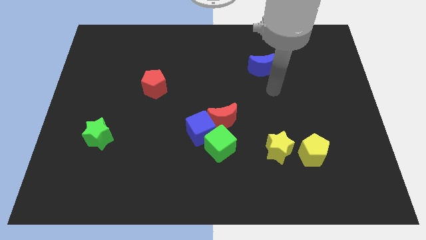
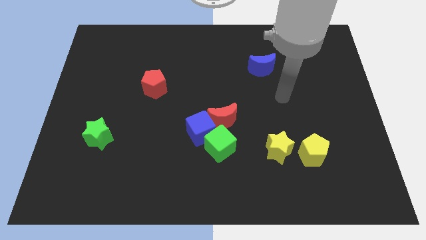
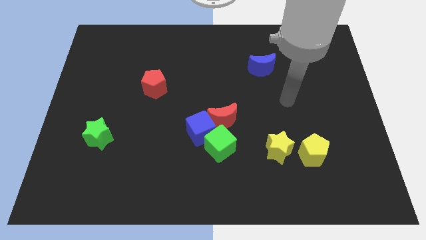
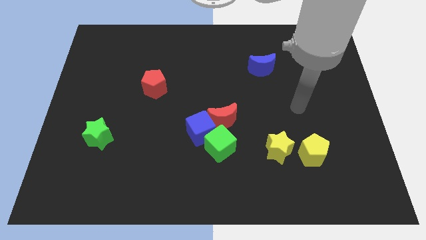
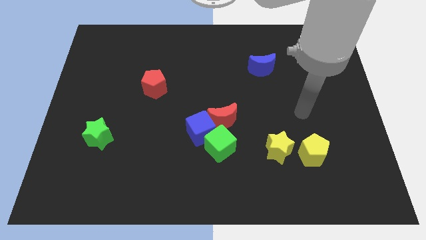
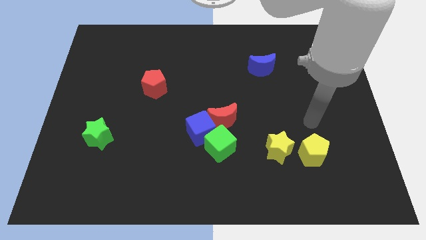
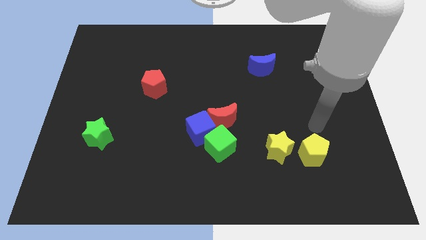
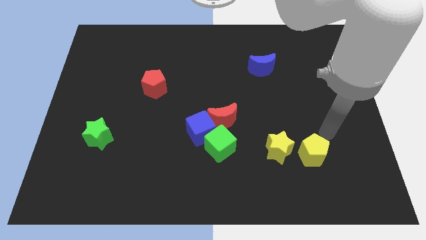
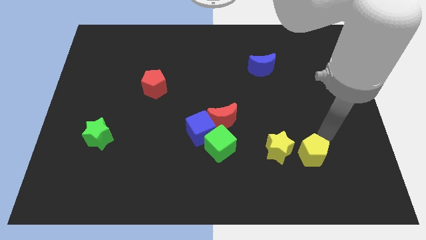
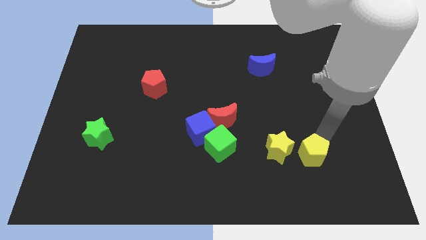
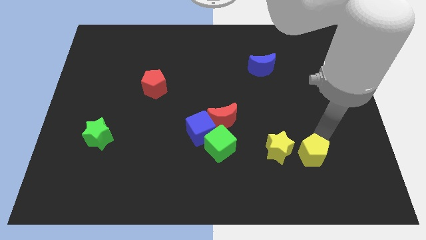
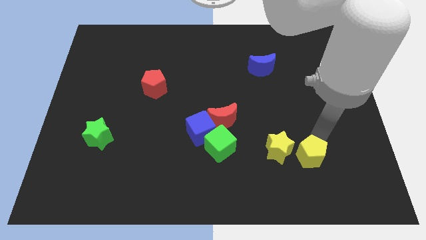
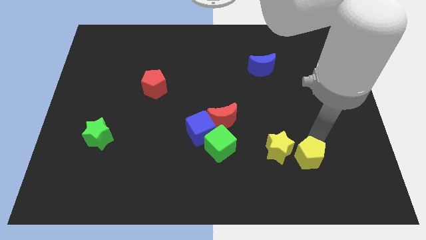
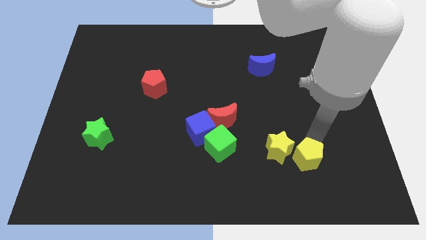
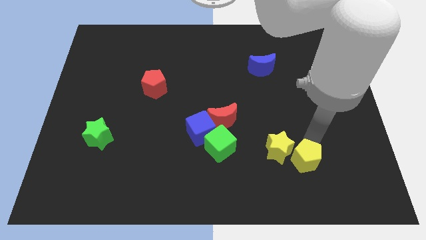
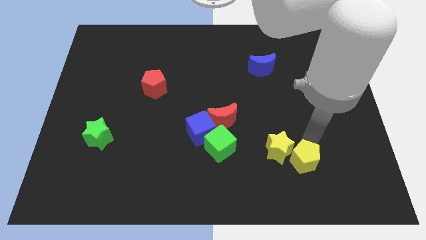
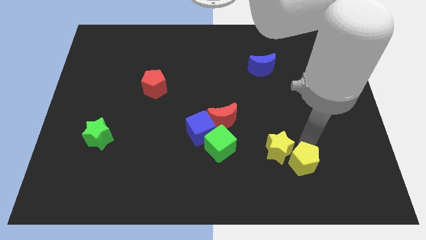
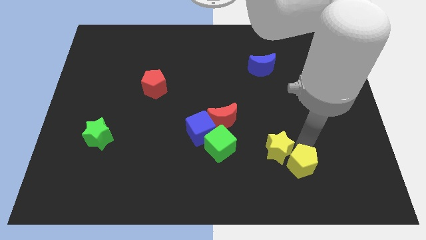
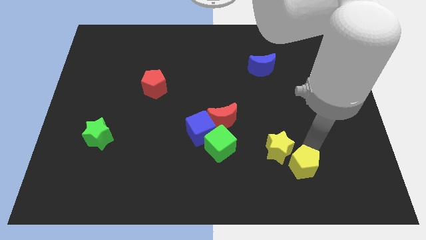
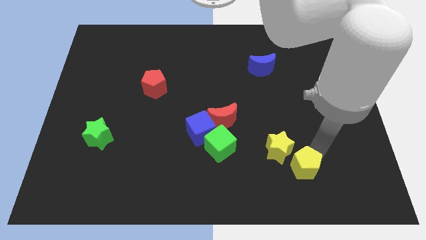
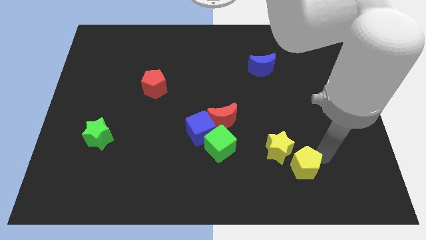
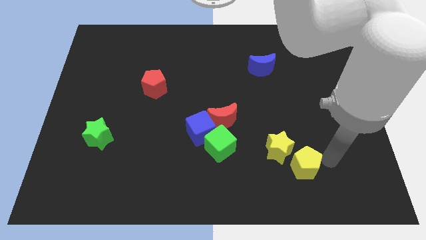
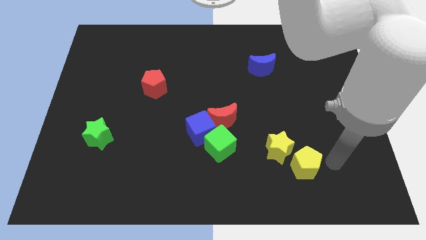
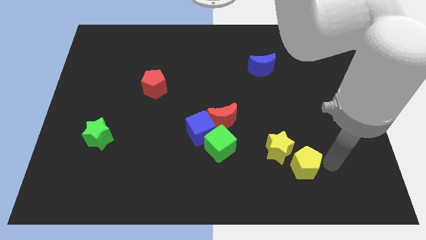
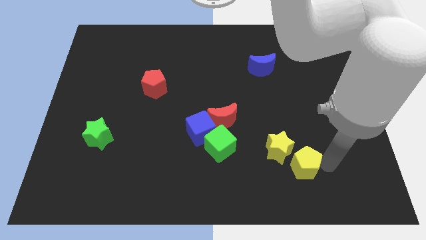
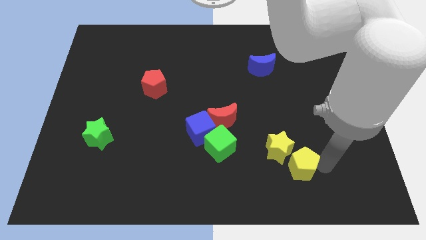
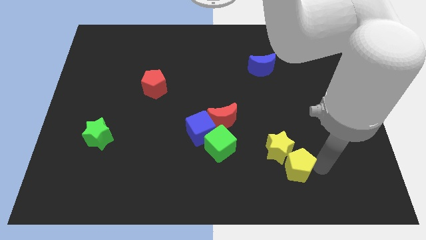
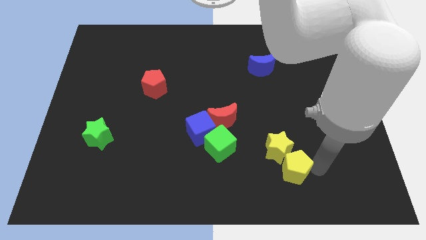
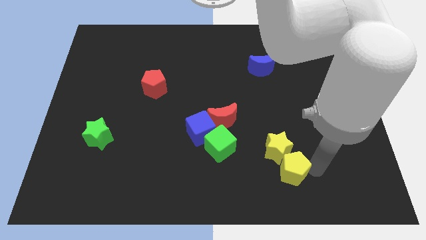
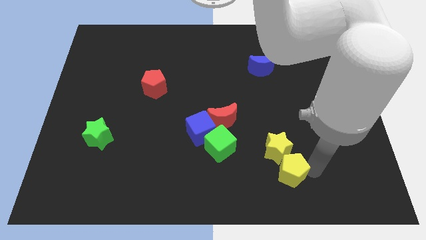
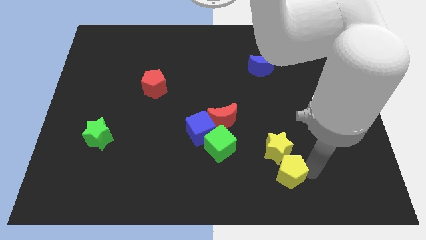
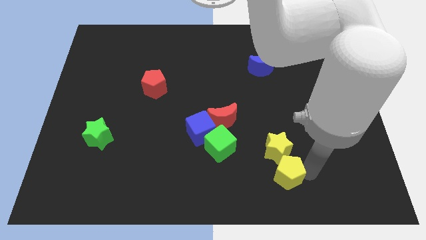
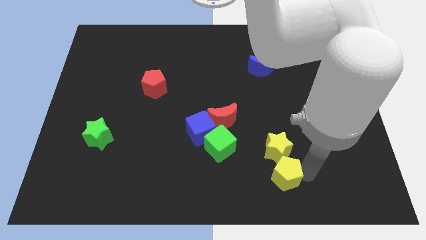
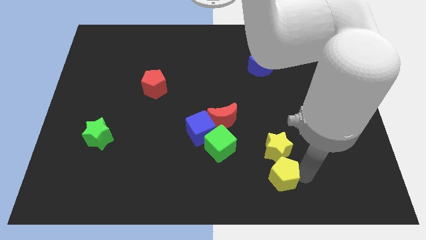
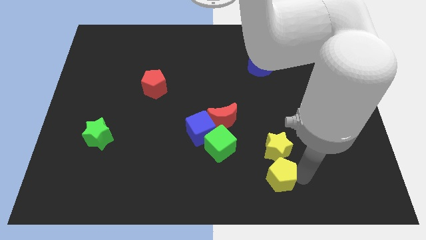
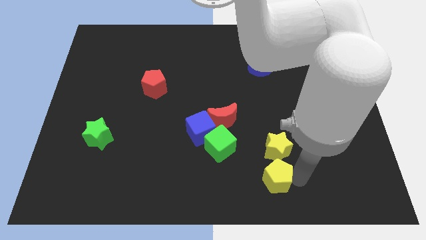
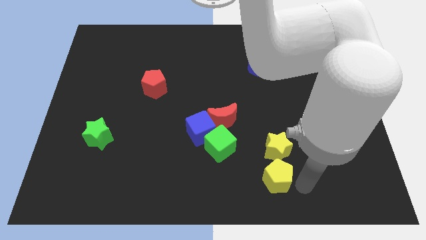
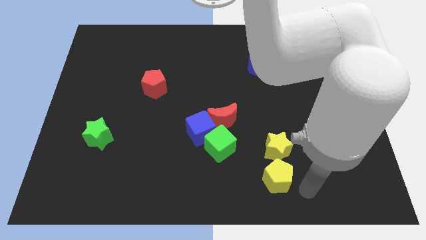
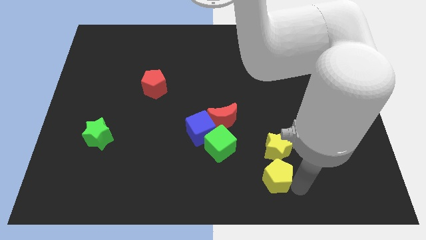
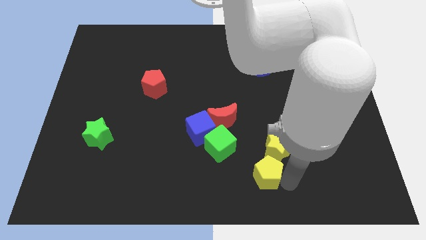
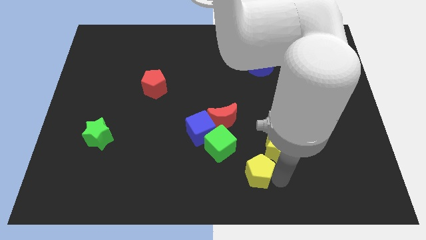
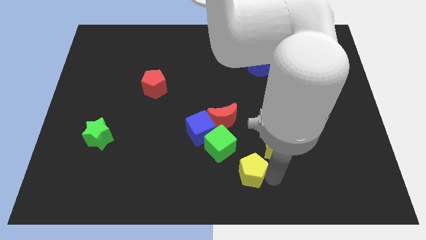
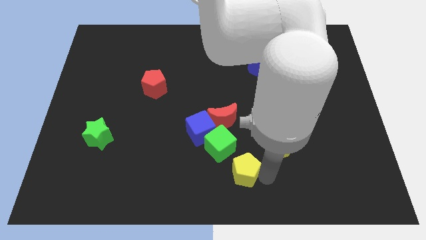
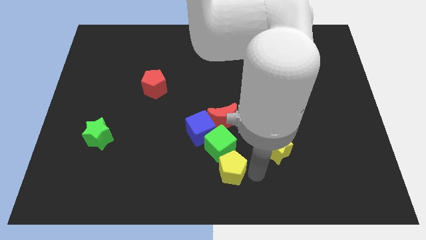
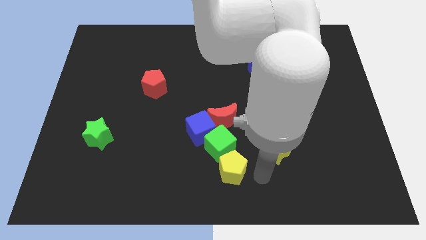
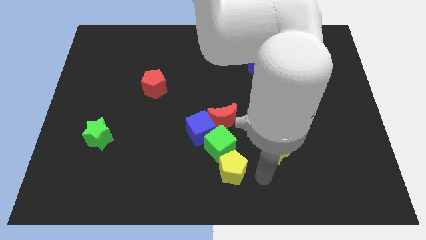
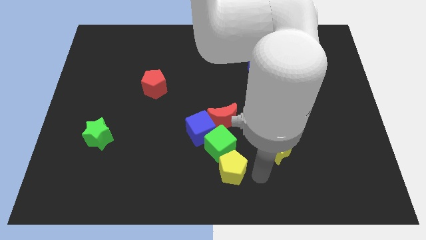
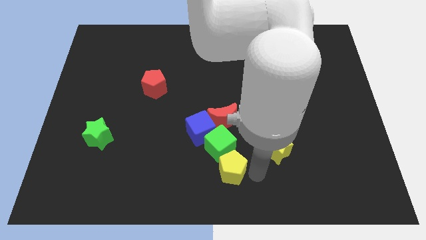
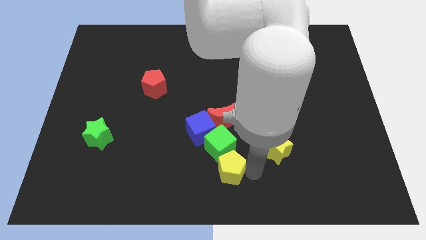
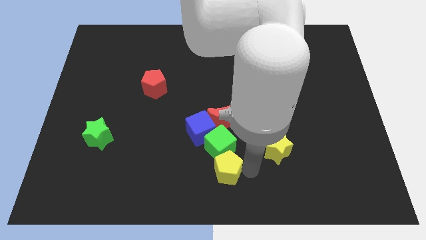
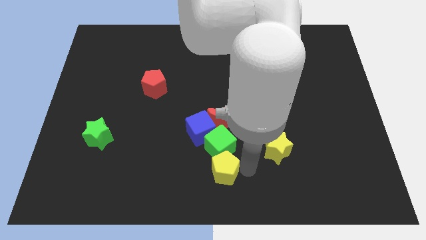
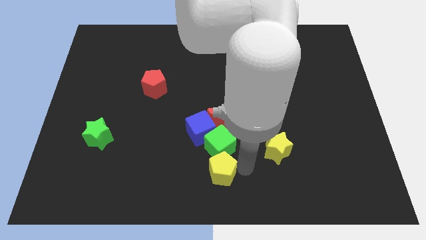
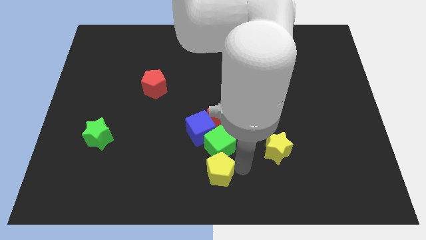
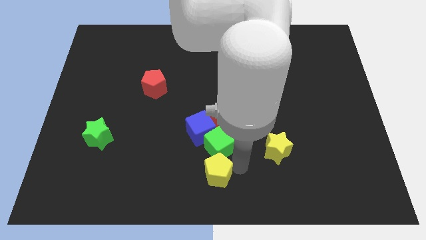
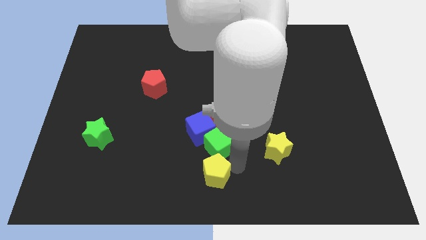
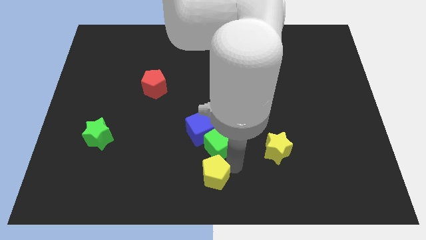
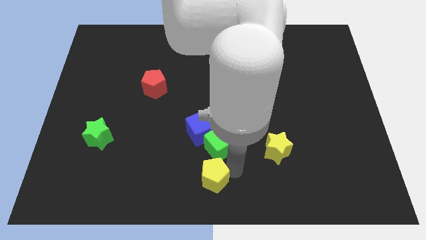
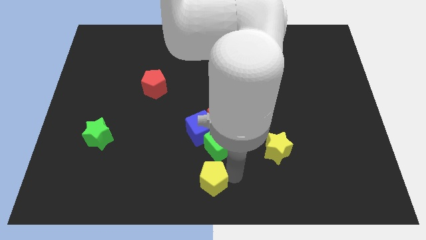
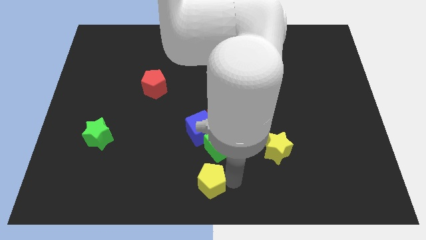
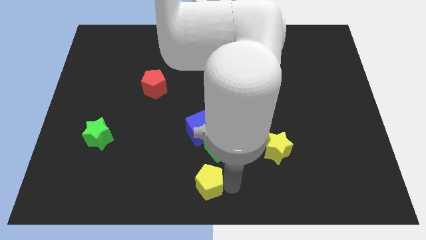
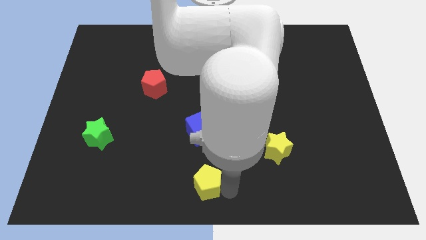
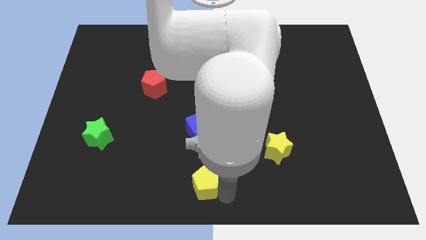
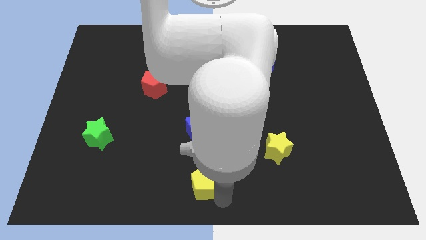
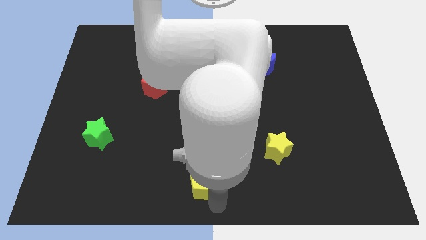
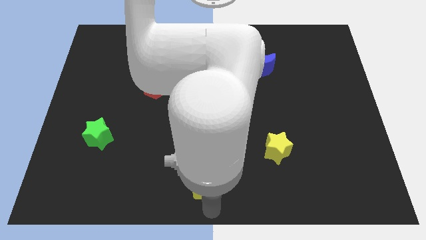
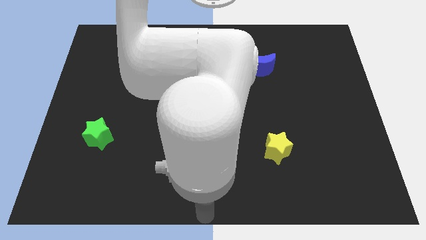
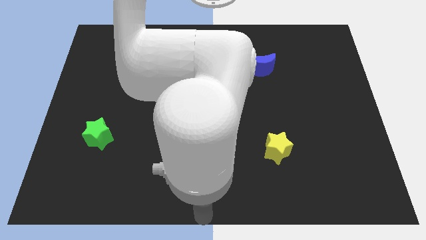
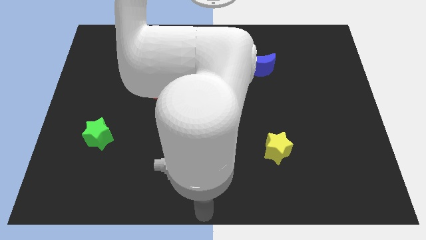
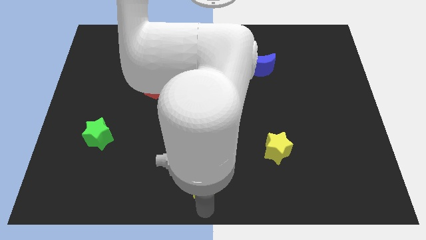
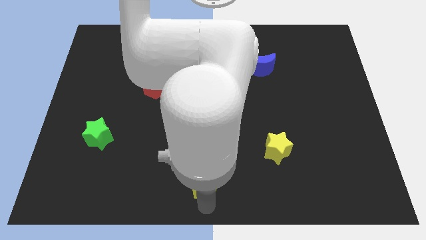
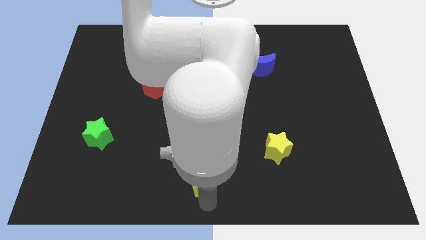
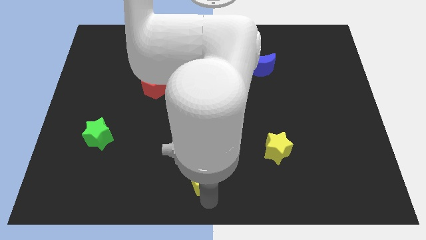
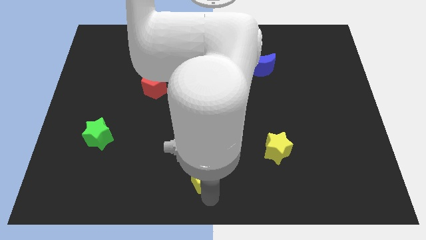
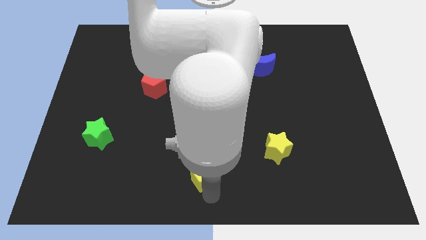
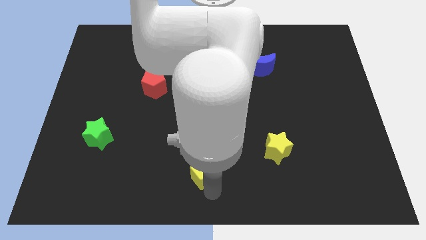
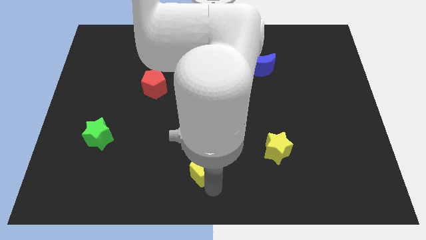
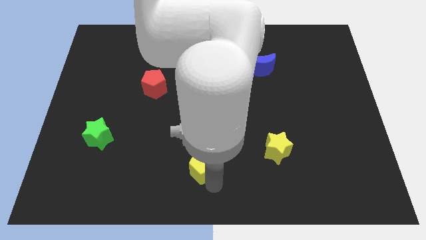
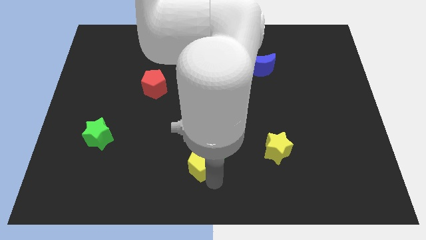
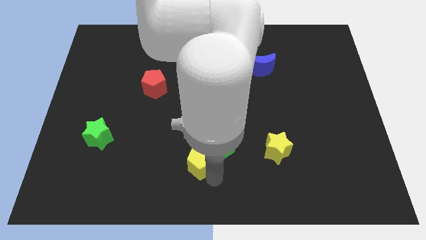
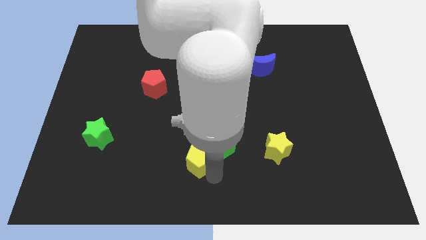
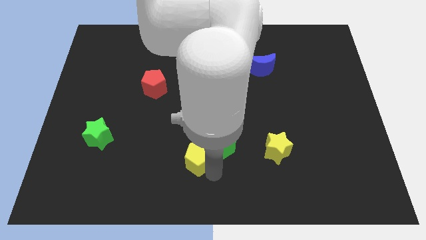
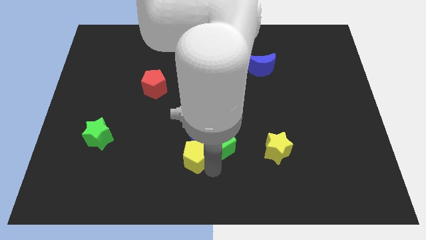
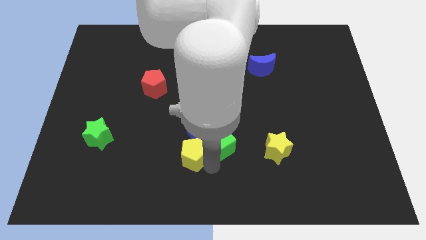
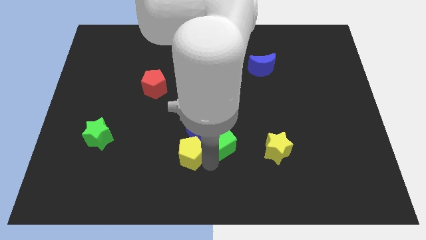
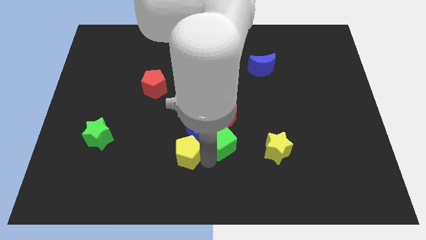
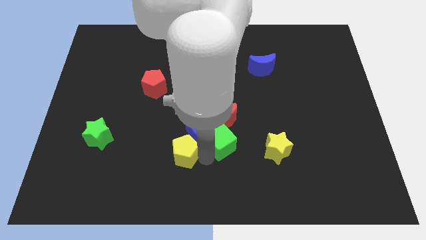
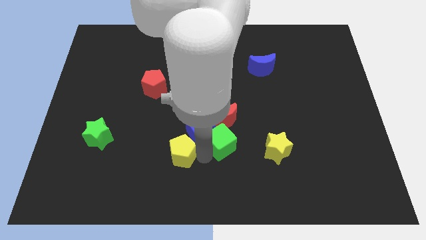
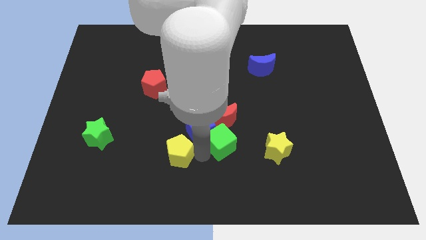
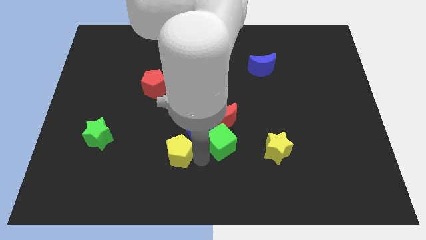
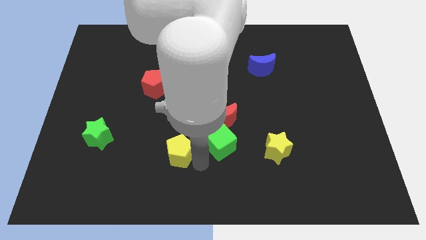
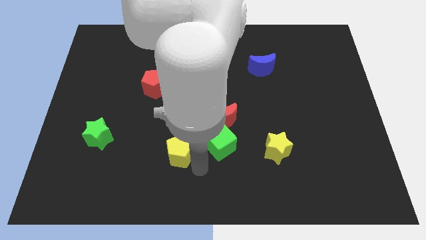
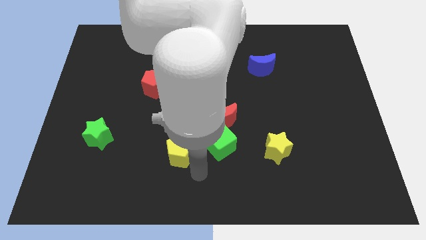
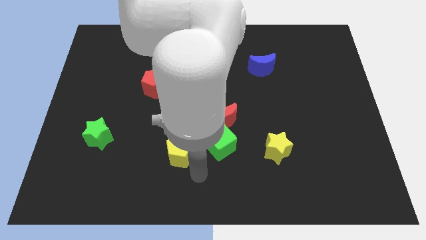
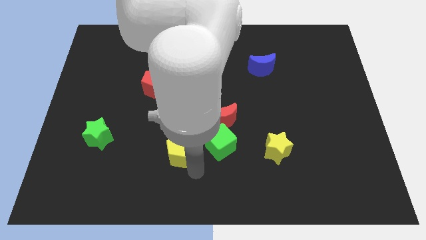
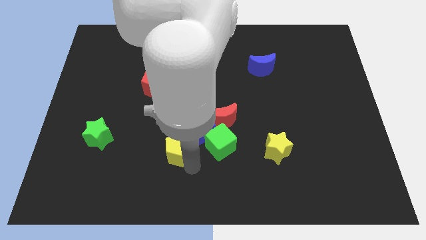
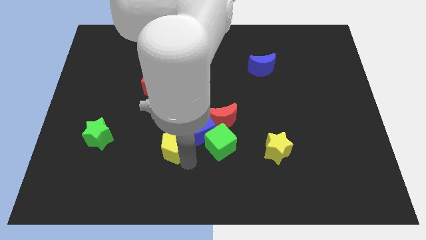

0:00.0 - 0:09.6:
move the yellow pentagon just left of the blue cube
